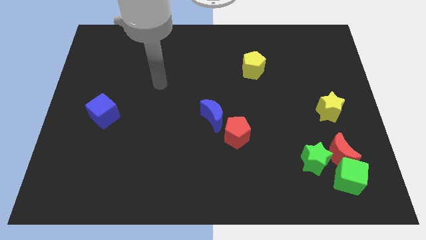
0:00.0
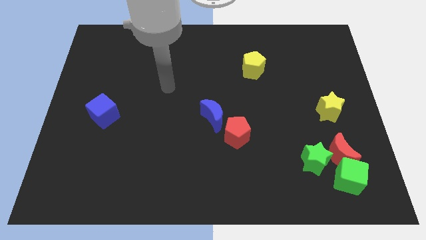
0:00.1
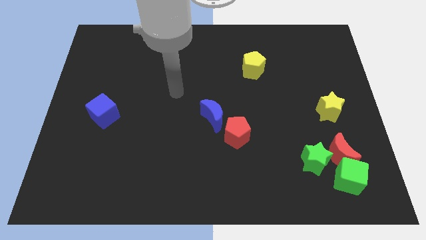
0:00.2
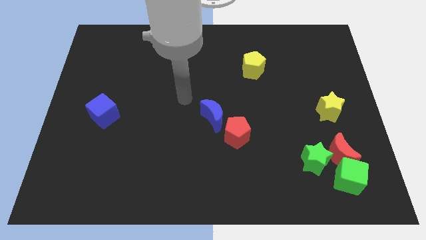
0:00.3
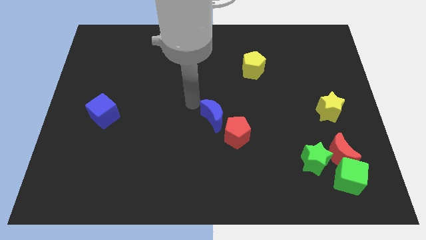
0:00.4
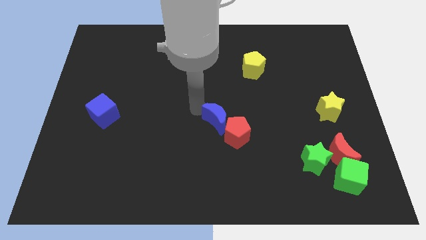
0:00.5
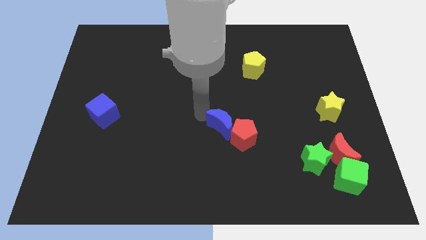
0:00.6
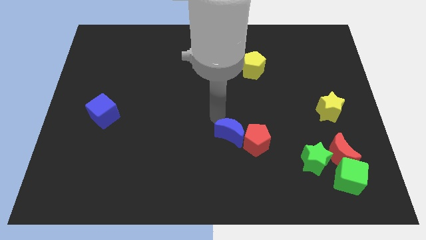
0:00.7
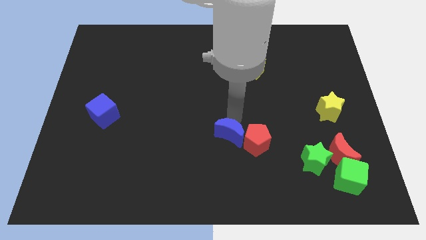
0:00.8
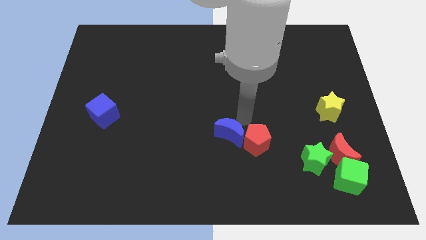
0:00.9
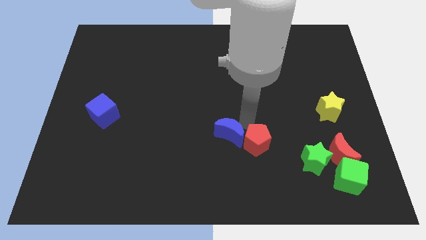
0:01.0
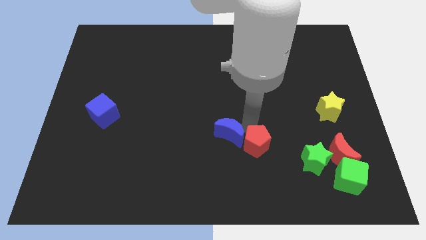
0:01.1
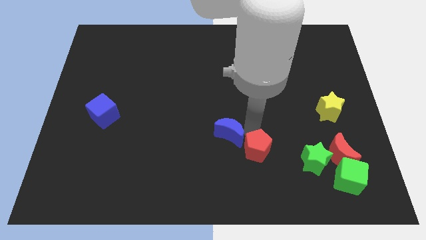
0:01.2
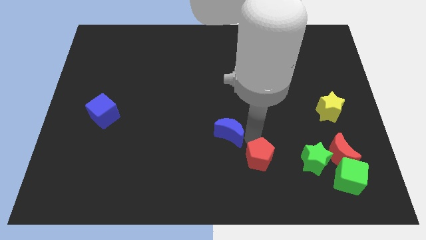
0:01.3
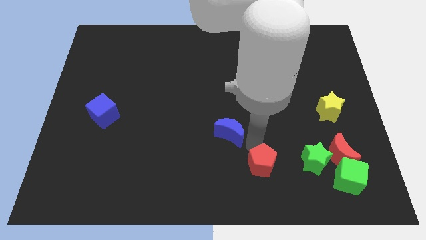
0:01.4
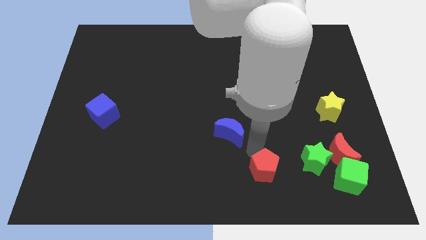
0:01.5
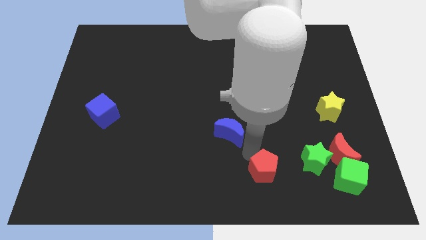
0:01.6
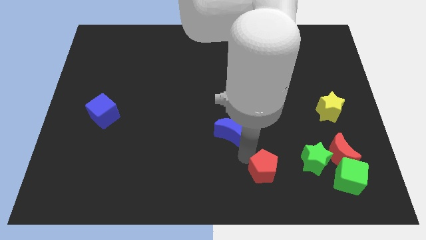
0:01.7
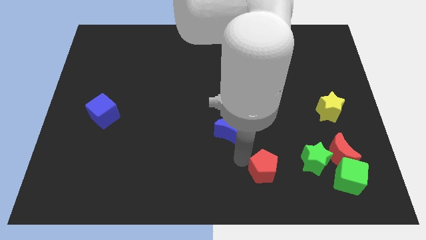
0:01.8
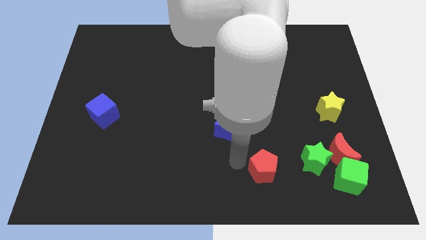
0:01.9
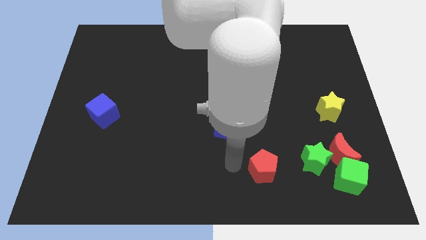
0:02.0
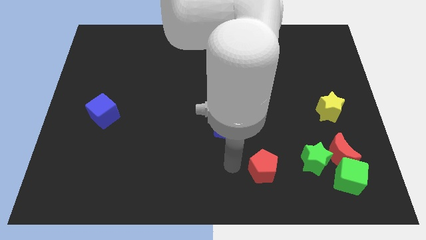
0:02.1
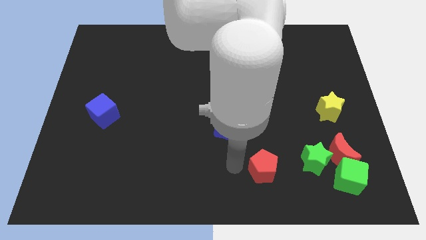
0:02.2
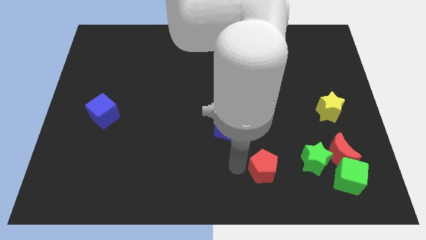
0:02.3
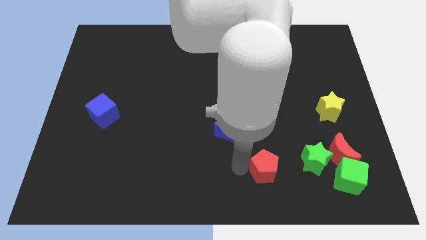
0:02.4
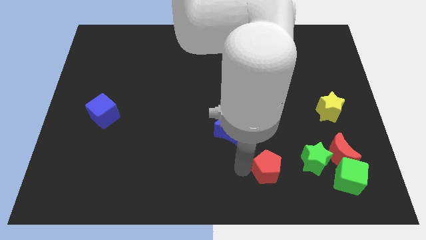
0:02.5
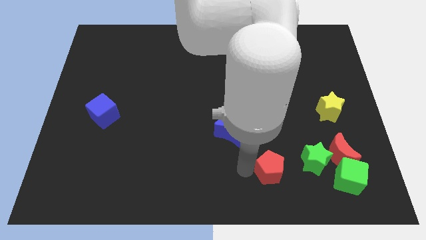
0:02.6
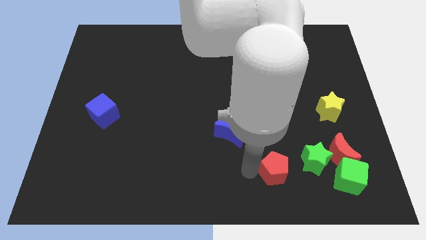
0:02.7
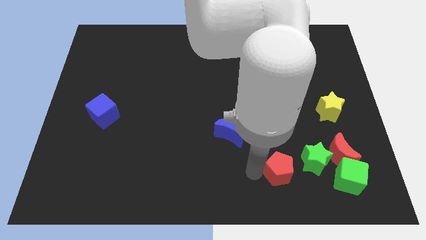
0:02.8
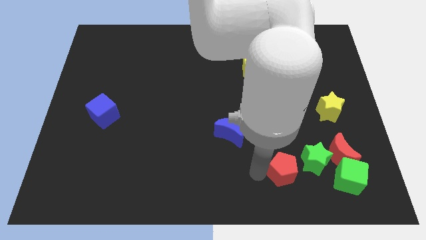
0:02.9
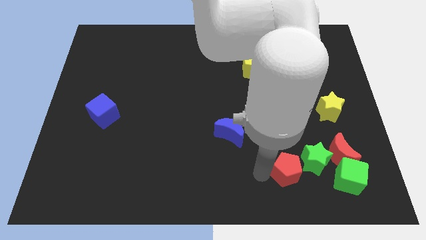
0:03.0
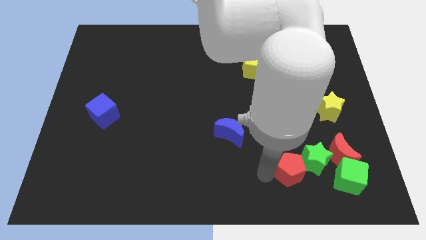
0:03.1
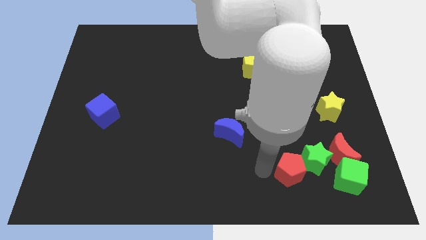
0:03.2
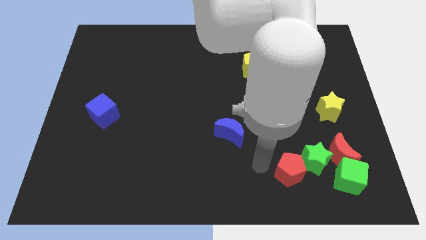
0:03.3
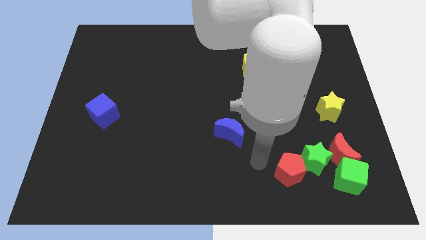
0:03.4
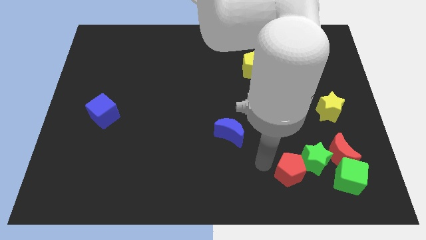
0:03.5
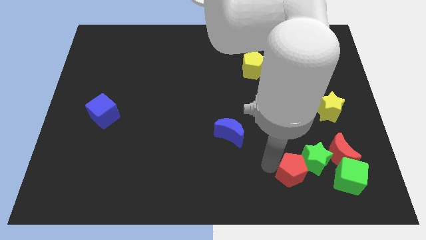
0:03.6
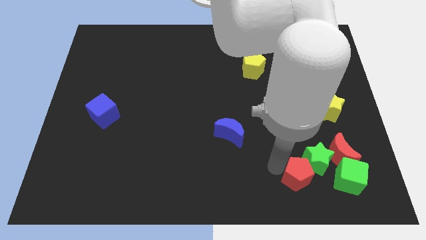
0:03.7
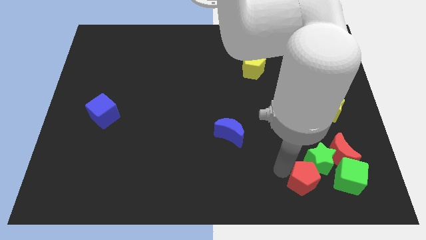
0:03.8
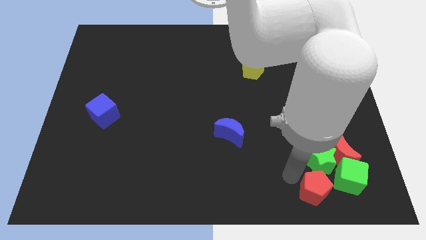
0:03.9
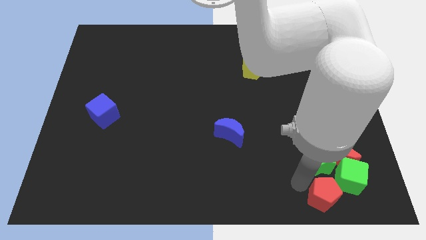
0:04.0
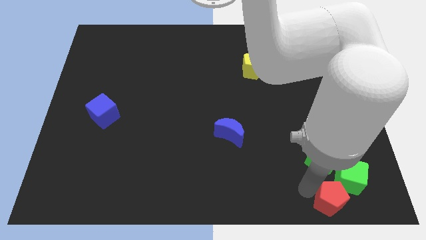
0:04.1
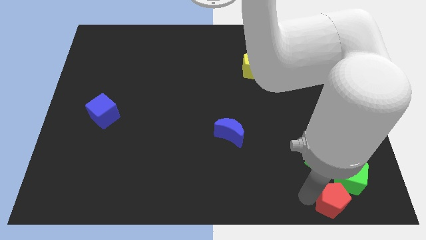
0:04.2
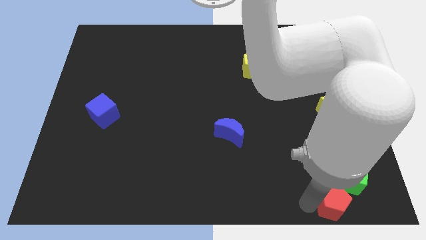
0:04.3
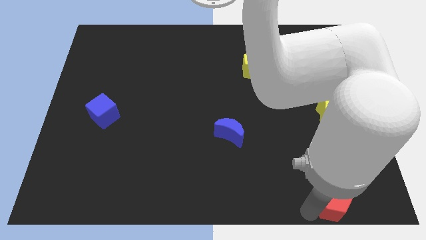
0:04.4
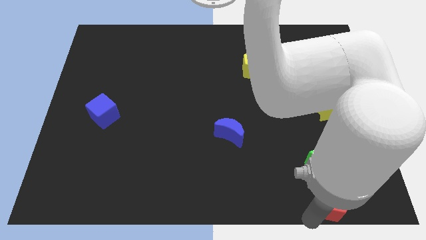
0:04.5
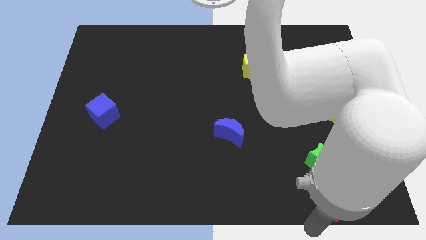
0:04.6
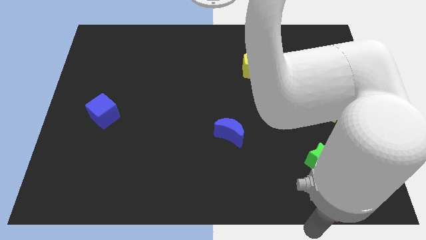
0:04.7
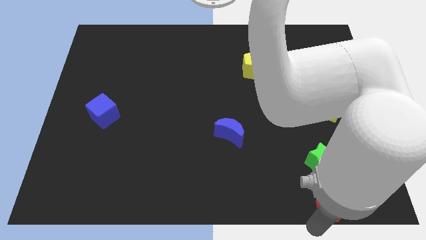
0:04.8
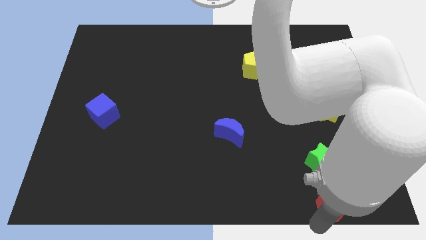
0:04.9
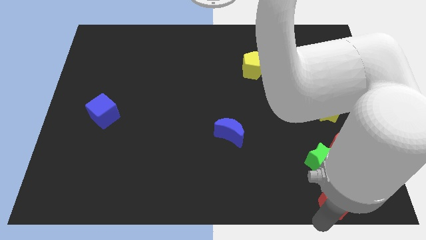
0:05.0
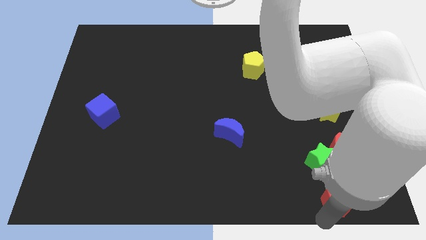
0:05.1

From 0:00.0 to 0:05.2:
slide the red pentagon next to the green cube

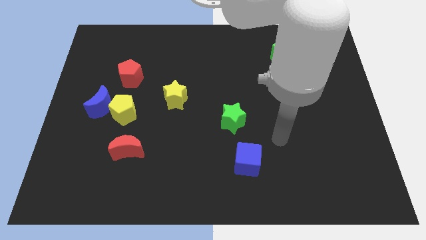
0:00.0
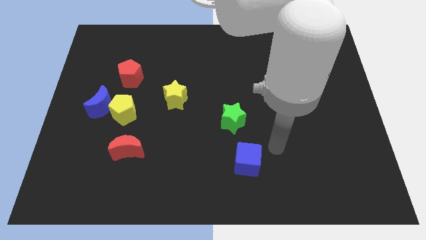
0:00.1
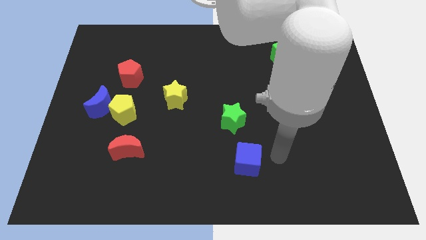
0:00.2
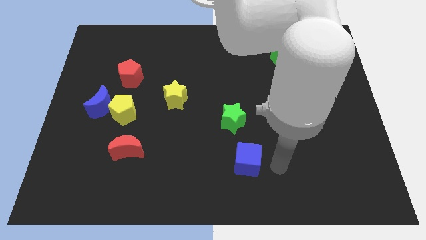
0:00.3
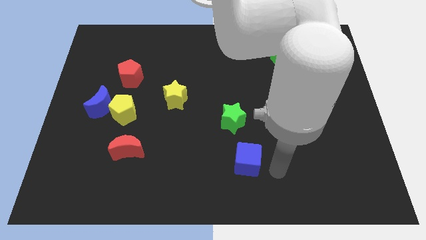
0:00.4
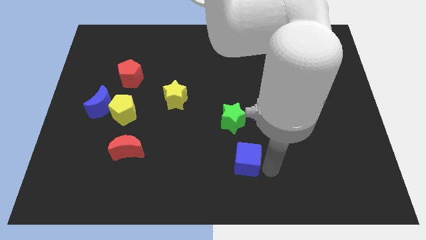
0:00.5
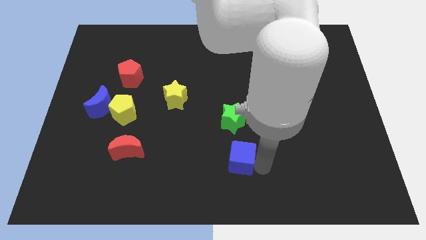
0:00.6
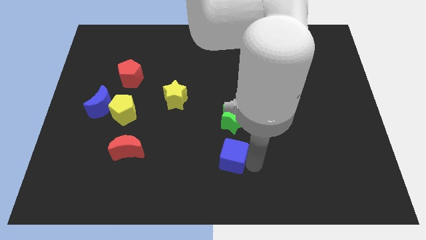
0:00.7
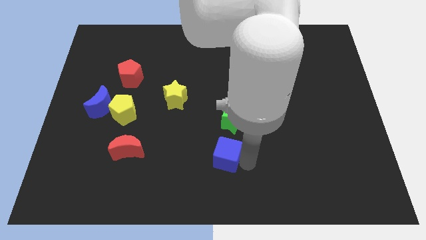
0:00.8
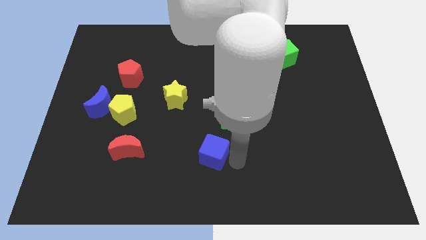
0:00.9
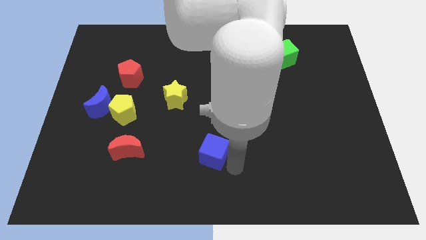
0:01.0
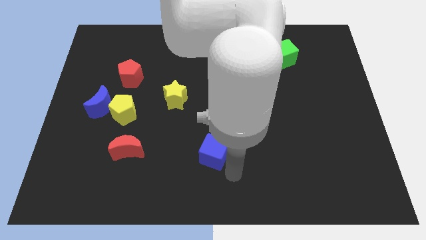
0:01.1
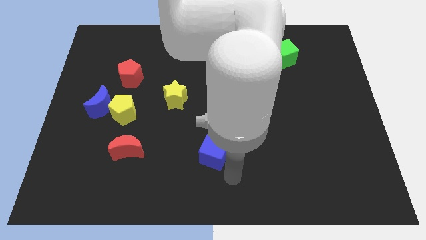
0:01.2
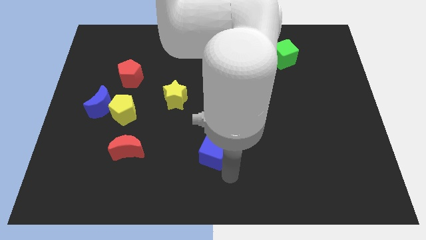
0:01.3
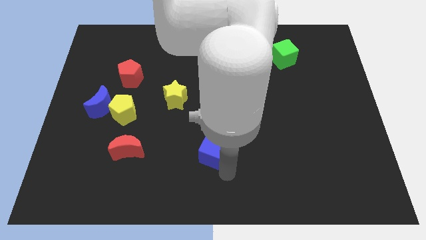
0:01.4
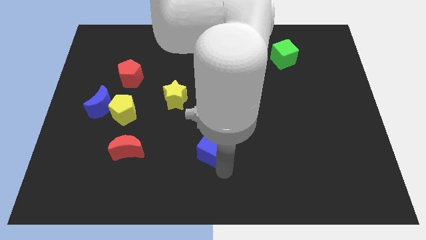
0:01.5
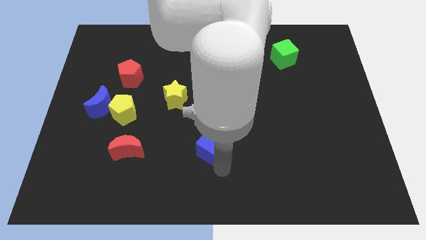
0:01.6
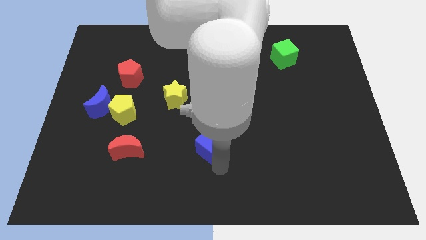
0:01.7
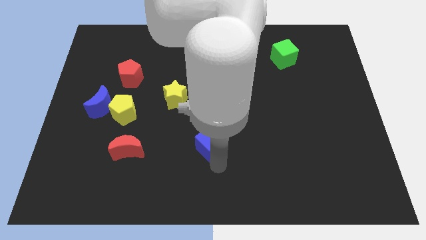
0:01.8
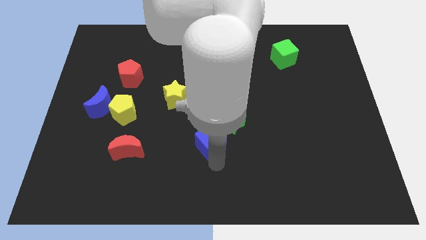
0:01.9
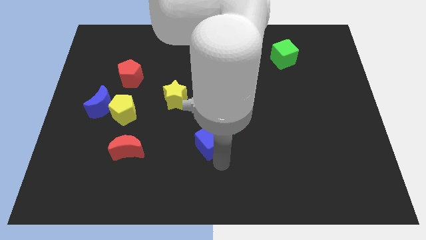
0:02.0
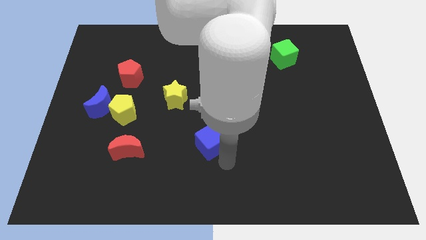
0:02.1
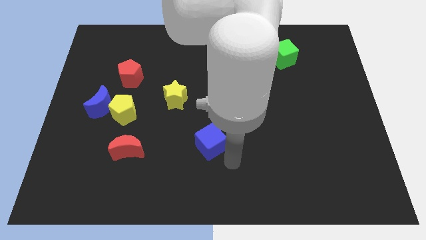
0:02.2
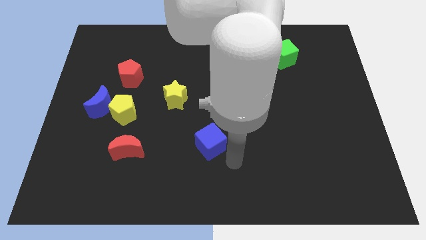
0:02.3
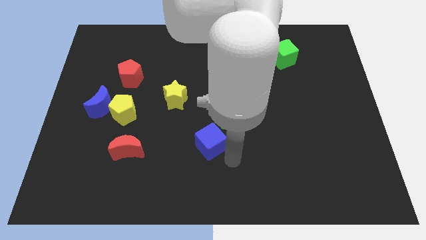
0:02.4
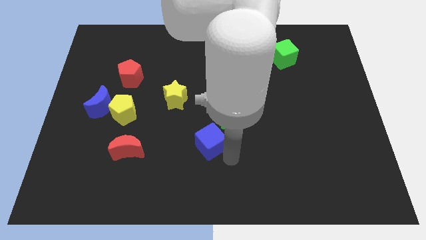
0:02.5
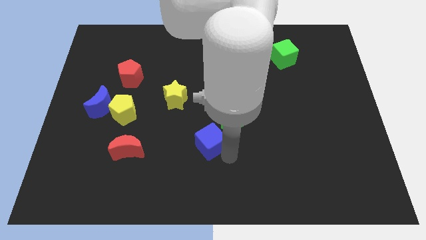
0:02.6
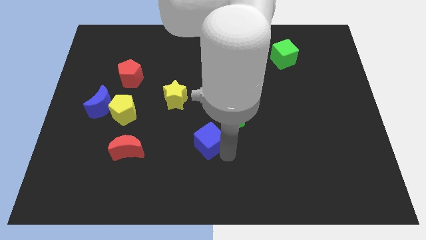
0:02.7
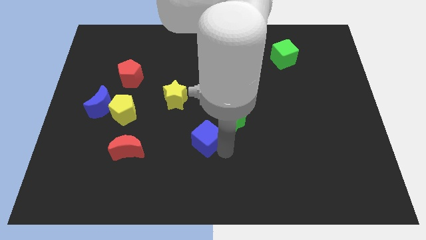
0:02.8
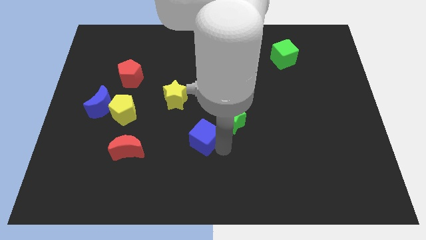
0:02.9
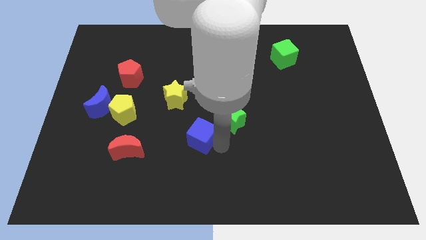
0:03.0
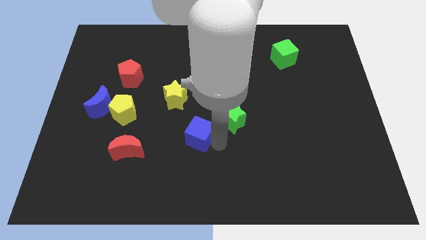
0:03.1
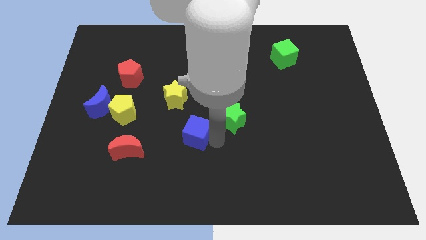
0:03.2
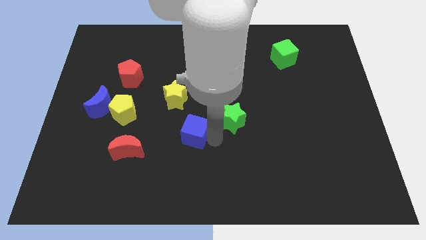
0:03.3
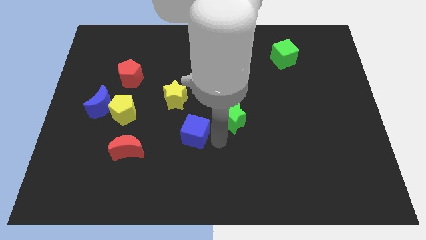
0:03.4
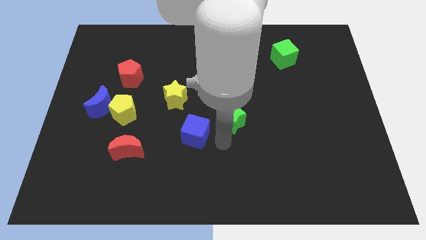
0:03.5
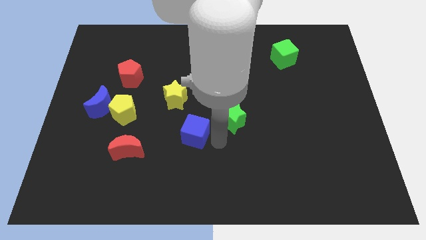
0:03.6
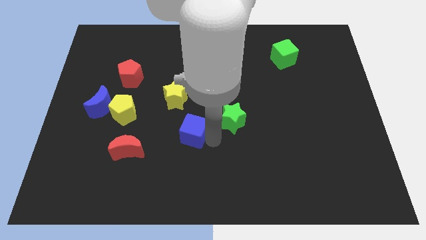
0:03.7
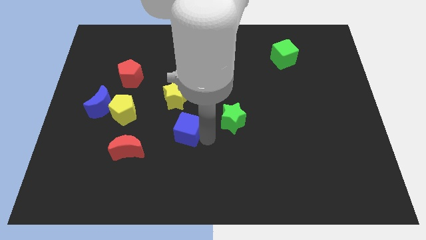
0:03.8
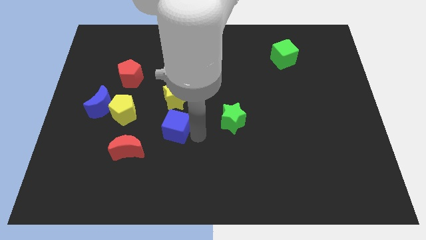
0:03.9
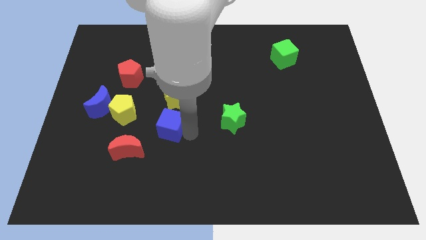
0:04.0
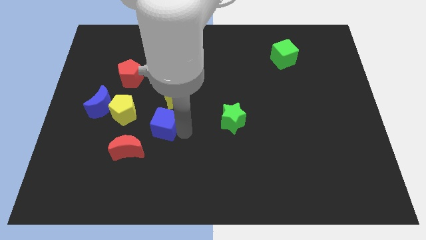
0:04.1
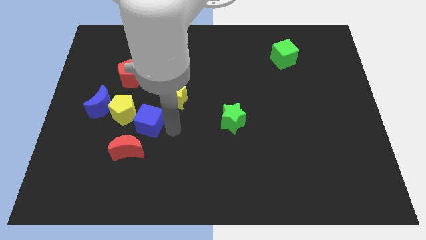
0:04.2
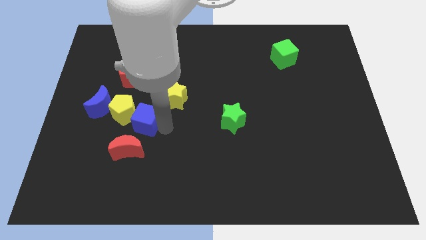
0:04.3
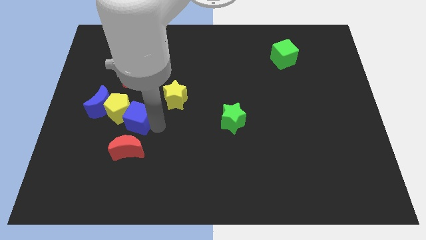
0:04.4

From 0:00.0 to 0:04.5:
push the blue cube towards the yellow pentagon
